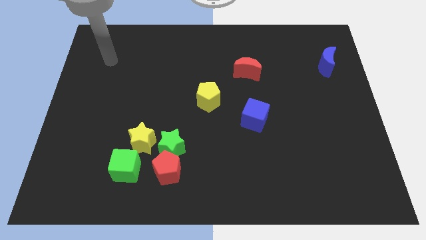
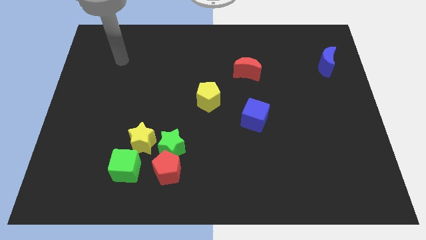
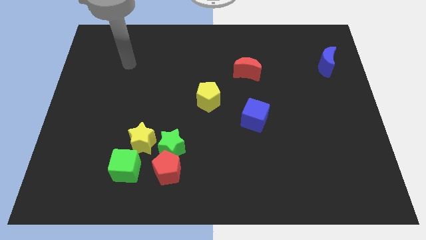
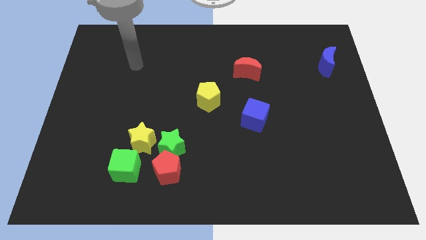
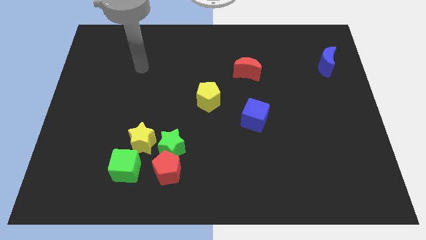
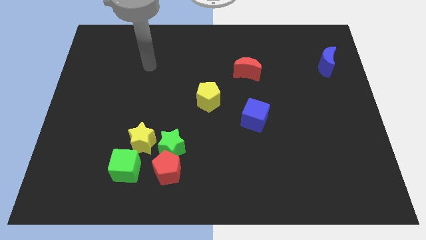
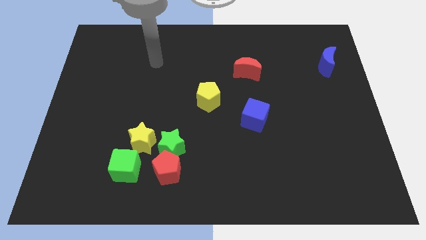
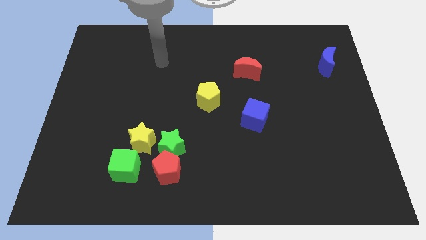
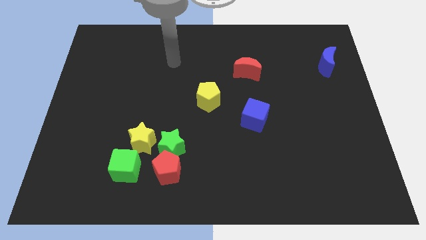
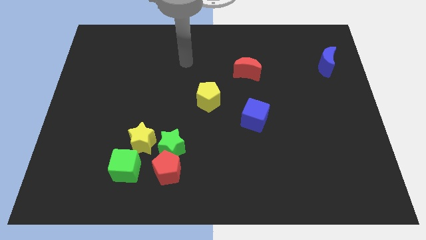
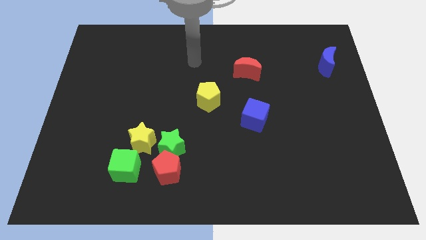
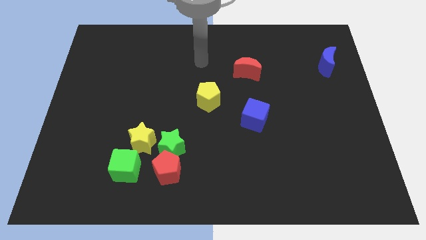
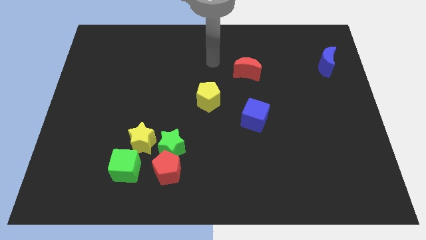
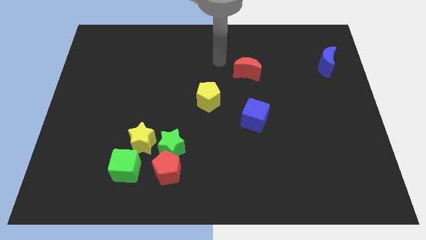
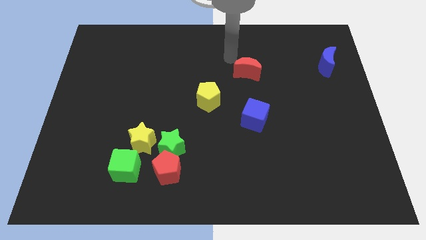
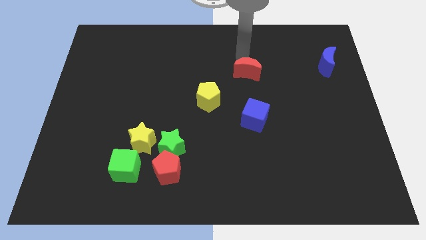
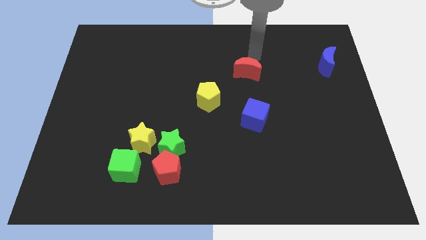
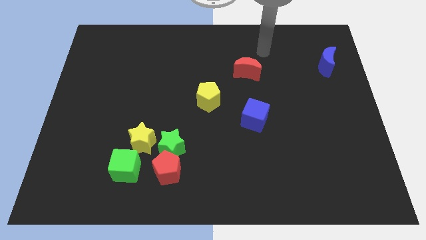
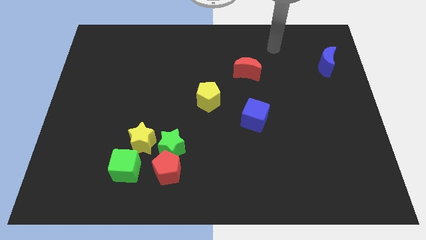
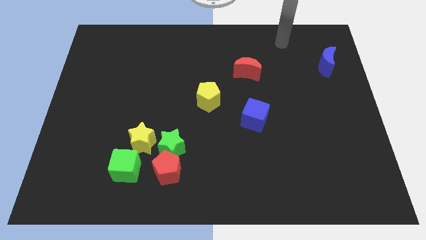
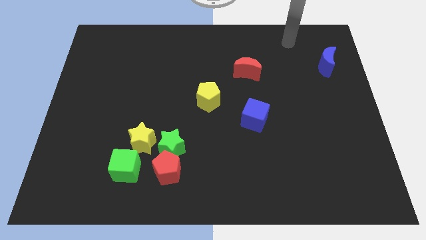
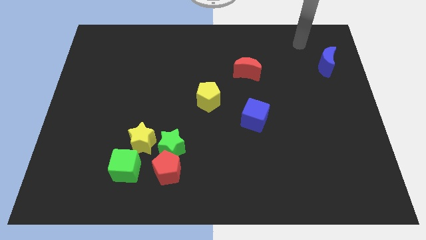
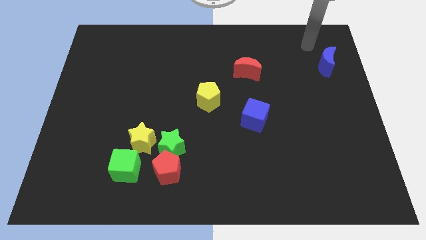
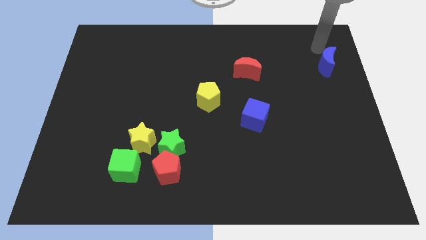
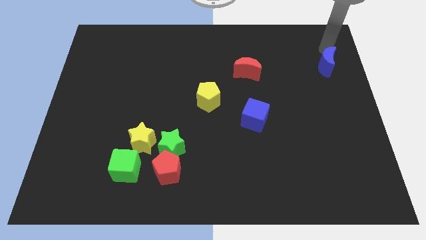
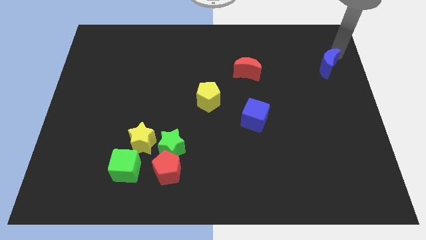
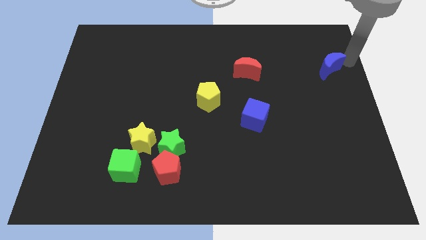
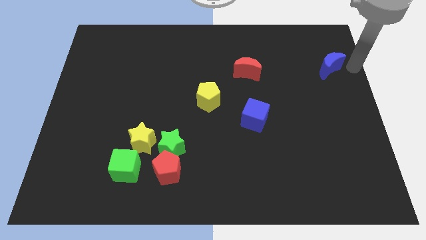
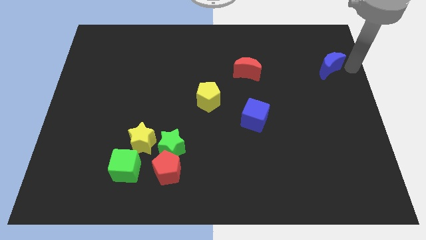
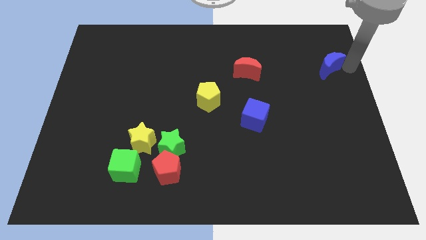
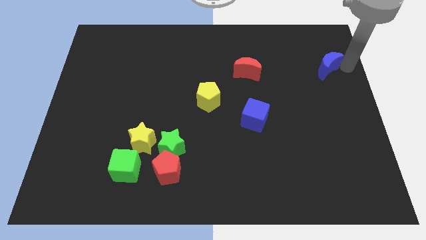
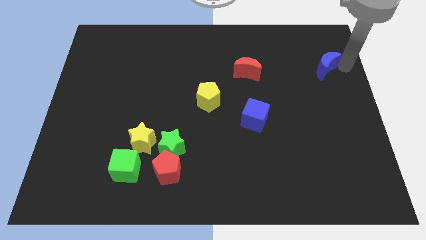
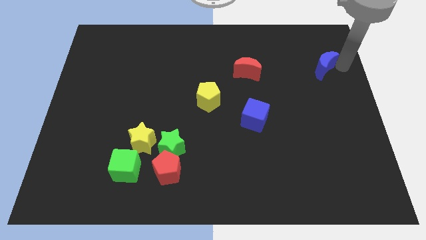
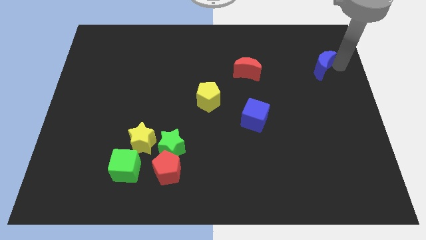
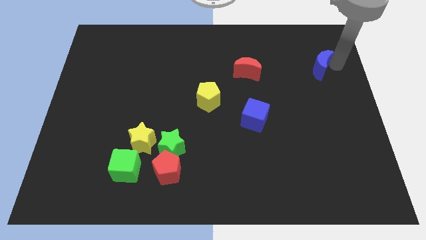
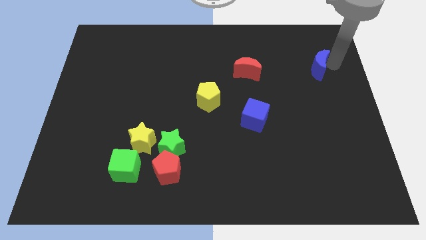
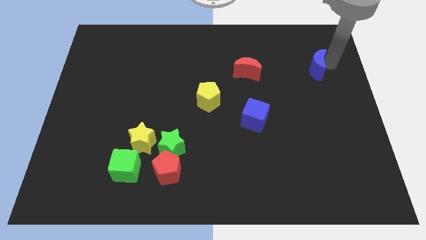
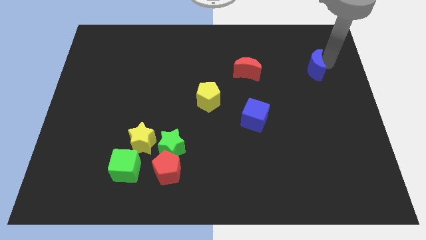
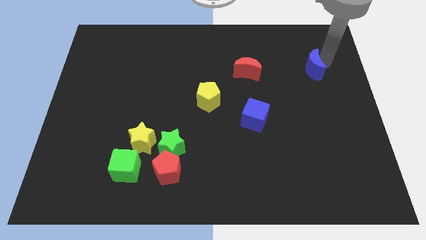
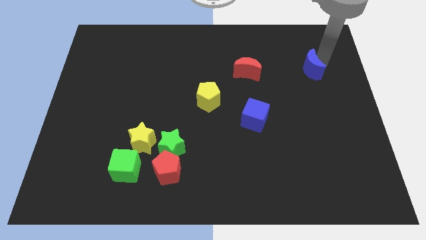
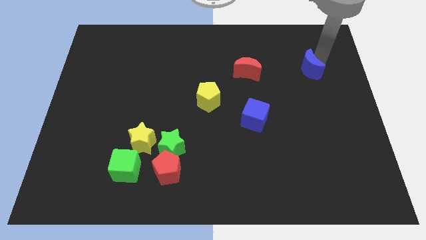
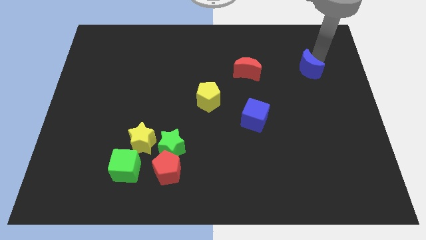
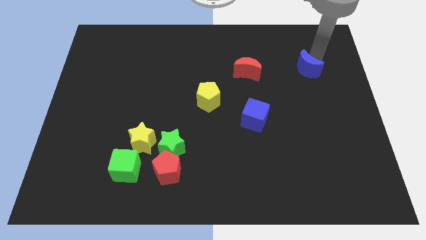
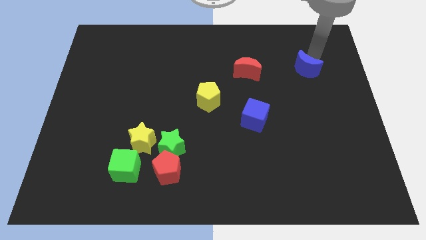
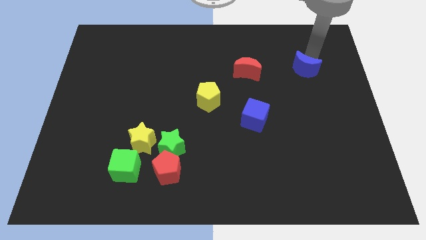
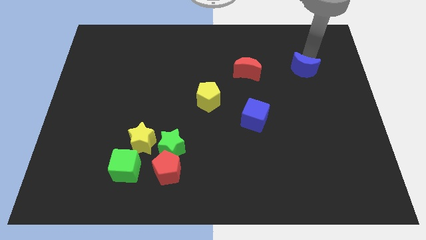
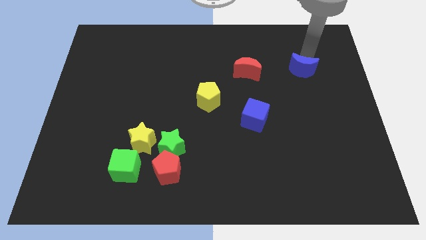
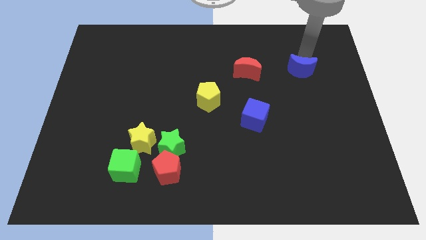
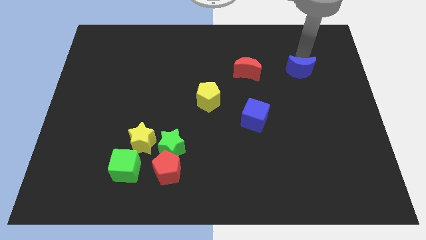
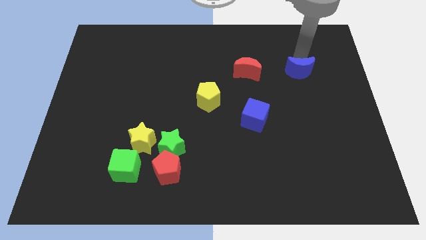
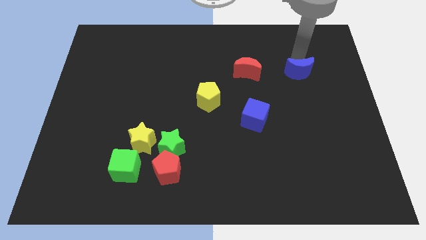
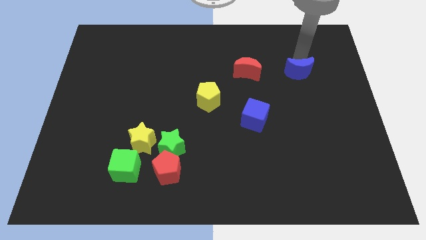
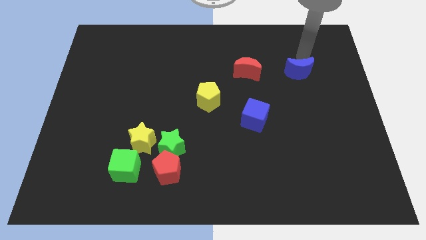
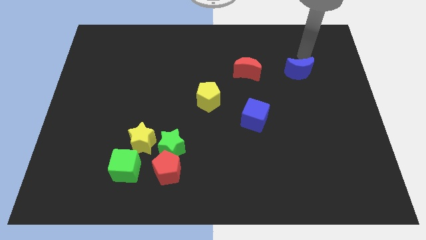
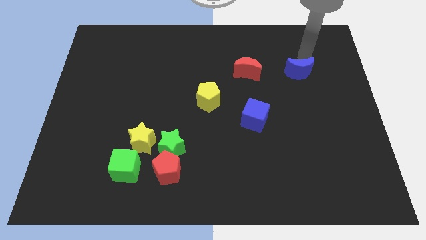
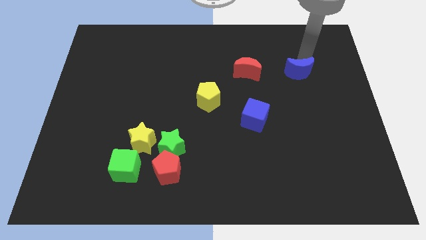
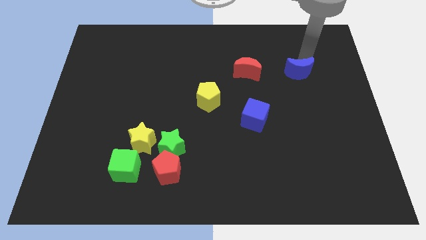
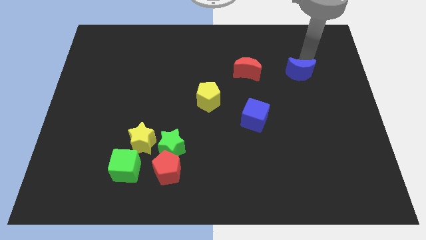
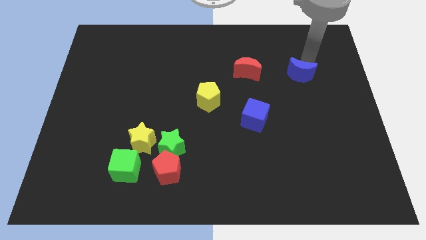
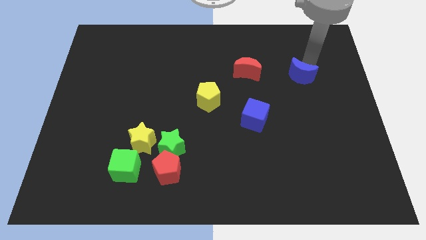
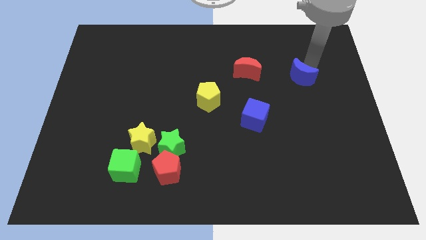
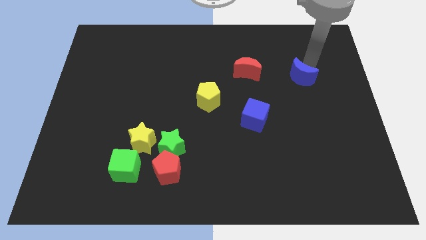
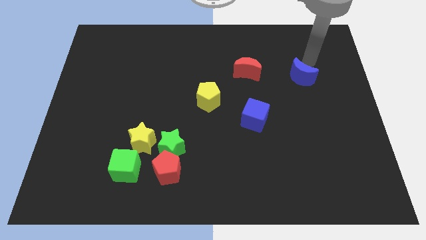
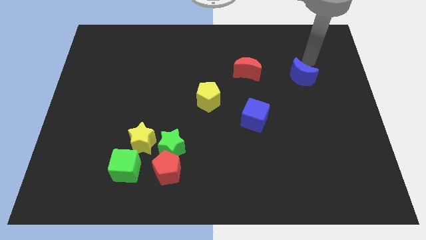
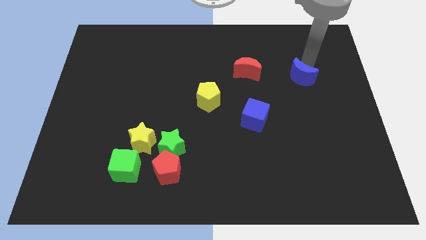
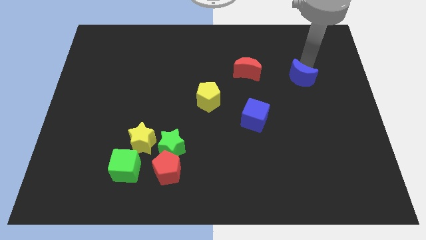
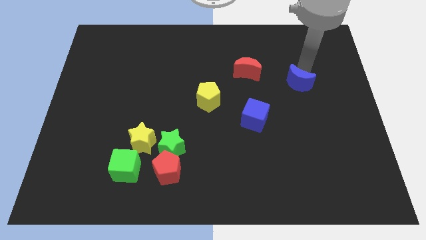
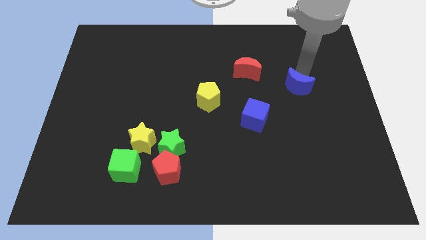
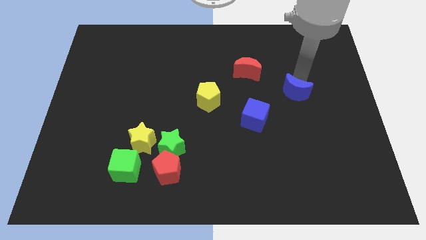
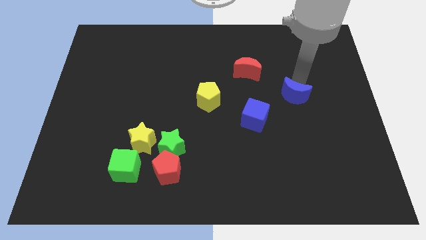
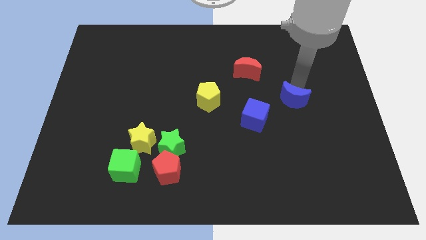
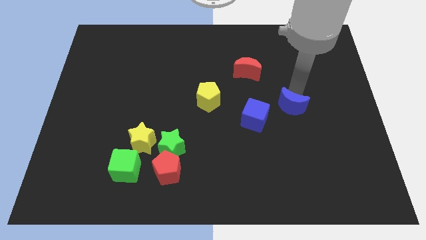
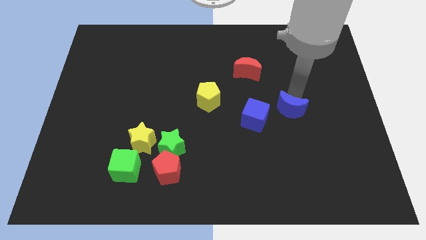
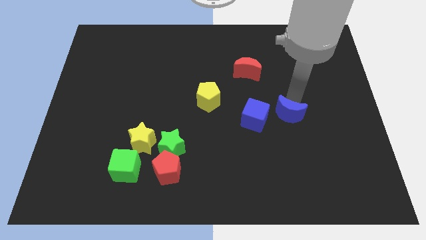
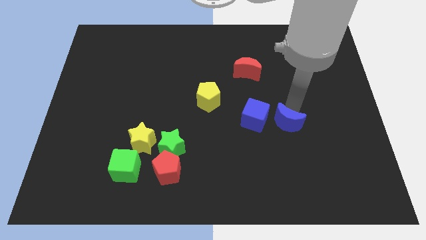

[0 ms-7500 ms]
slide the blue moon down and left diagonally

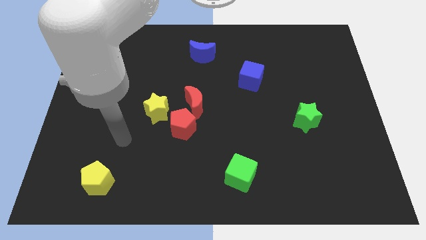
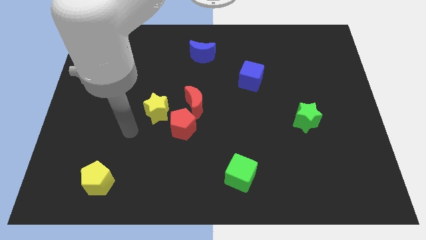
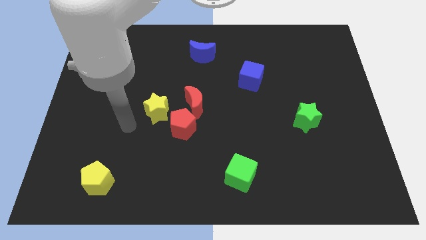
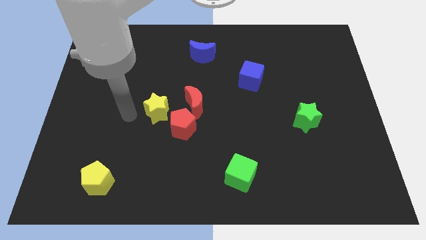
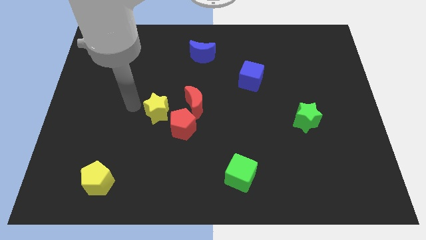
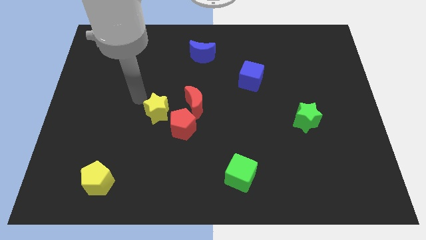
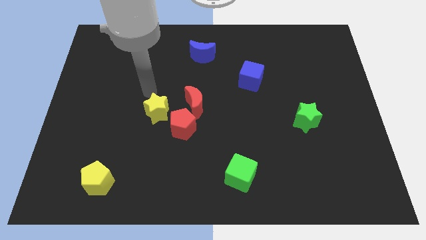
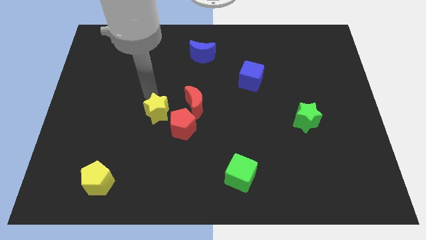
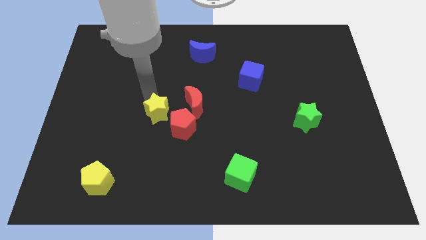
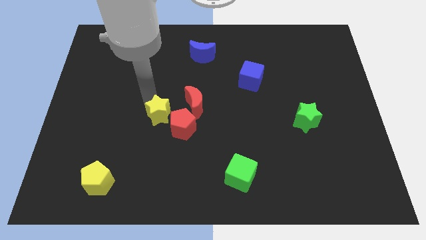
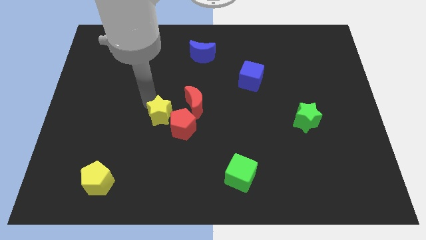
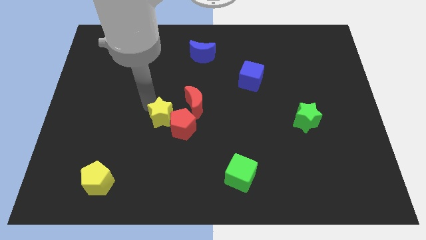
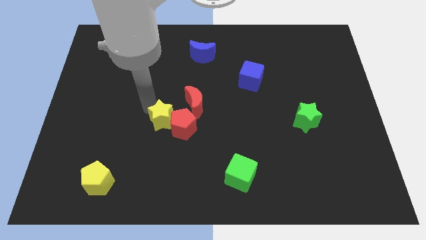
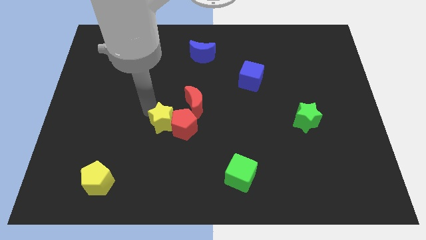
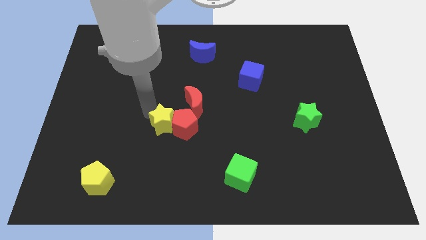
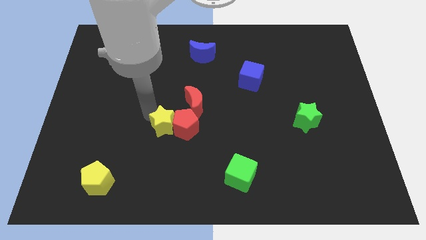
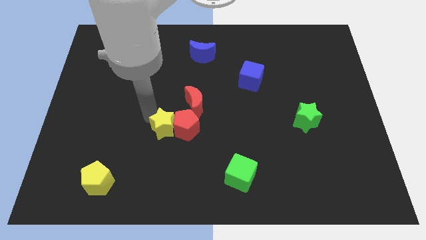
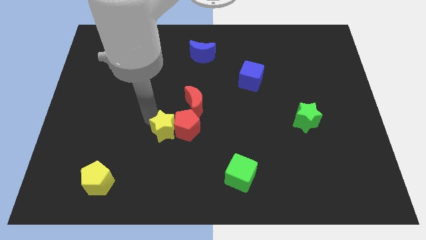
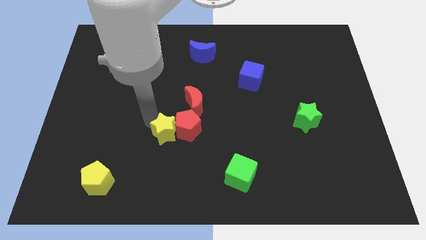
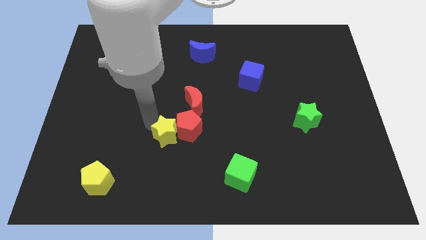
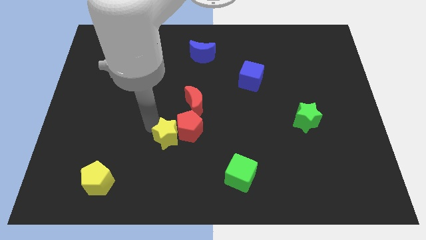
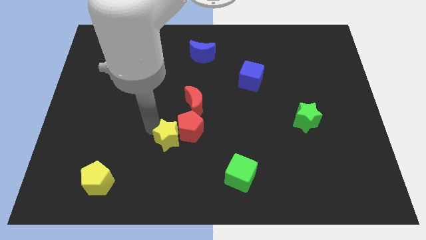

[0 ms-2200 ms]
slightly push the yellow star downwards and to the right
